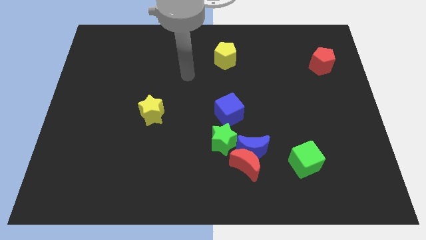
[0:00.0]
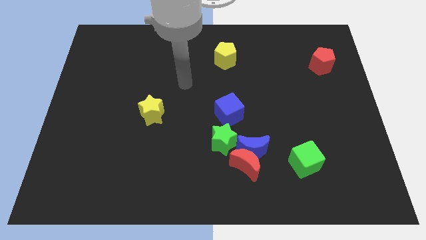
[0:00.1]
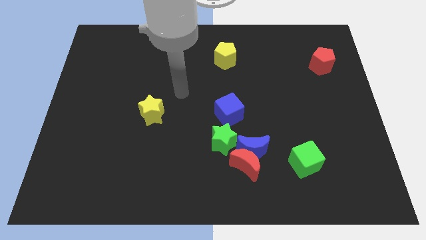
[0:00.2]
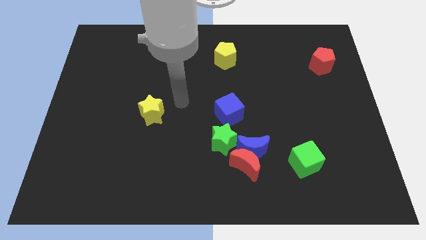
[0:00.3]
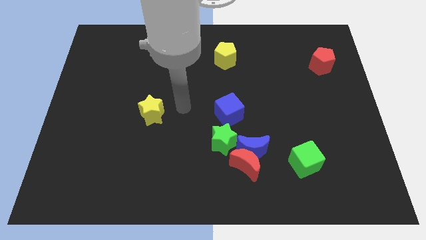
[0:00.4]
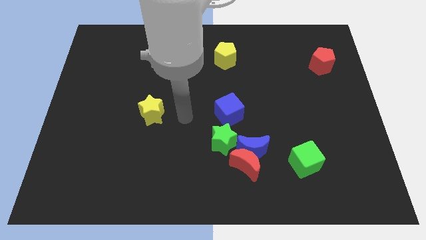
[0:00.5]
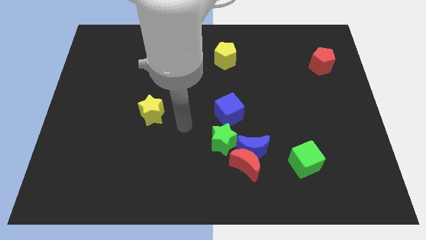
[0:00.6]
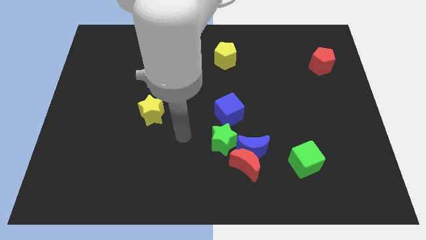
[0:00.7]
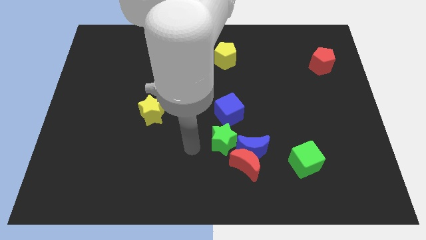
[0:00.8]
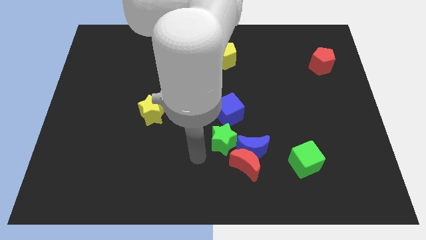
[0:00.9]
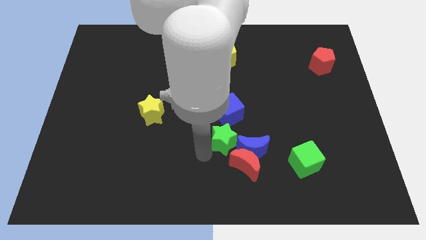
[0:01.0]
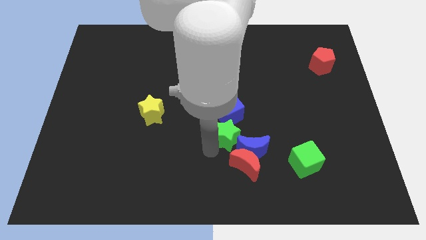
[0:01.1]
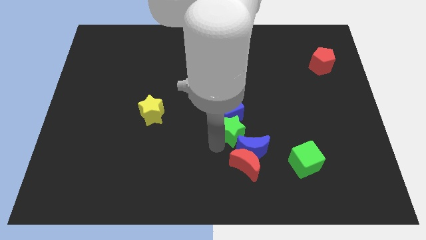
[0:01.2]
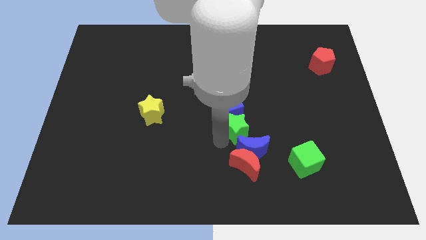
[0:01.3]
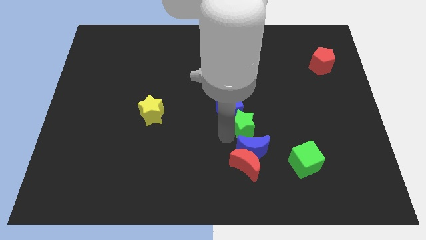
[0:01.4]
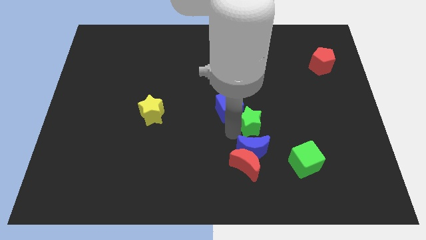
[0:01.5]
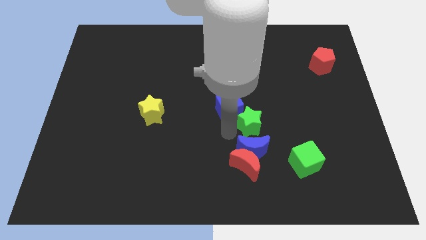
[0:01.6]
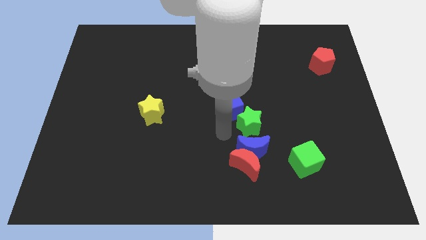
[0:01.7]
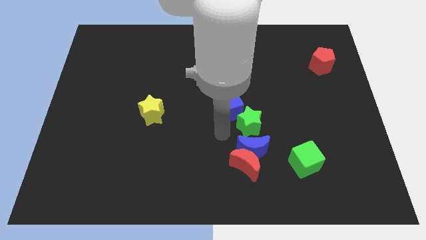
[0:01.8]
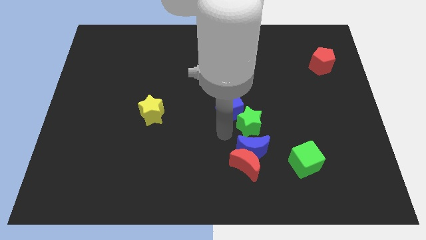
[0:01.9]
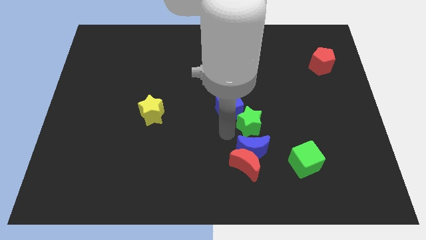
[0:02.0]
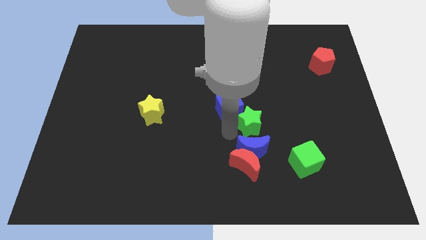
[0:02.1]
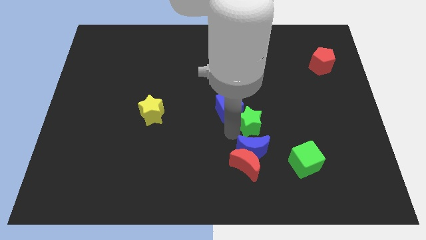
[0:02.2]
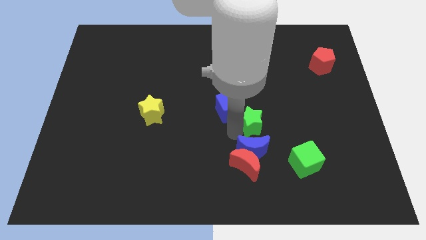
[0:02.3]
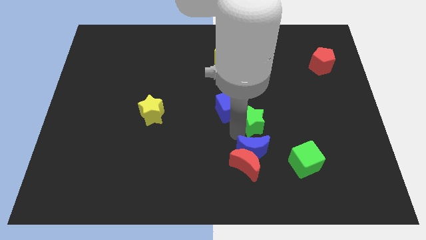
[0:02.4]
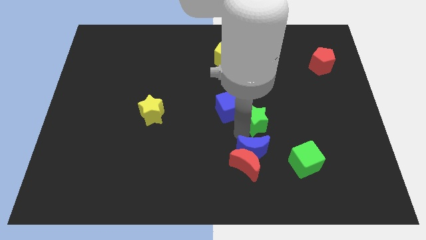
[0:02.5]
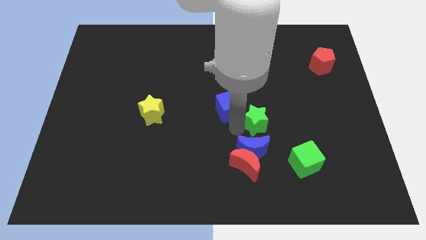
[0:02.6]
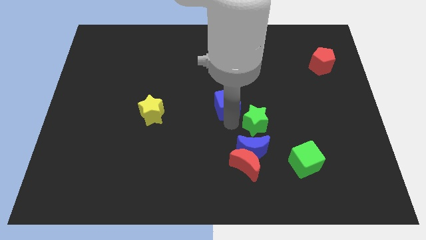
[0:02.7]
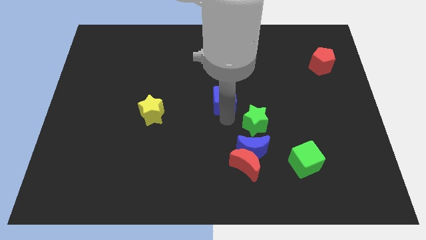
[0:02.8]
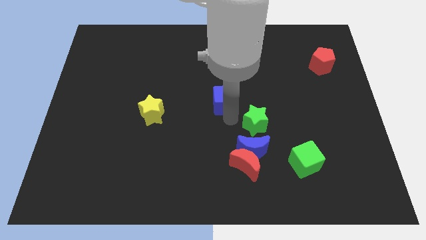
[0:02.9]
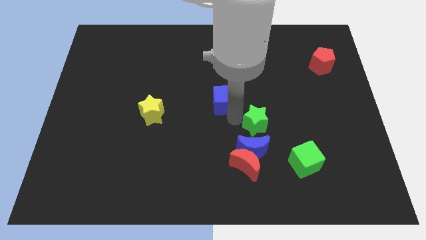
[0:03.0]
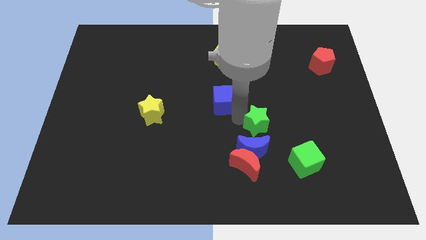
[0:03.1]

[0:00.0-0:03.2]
slightly push the green star to the right

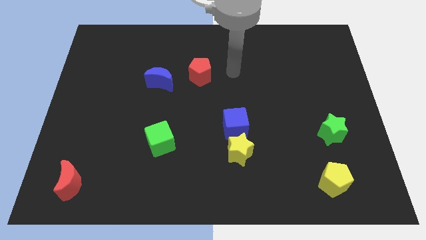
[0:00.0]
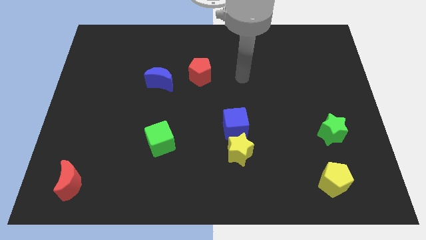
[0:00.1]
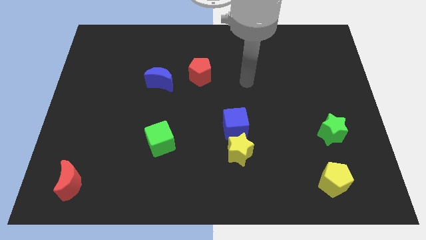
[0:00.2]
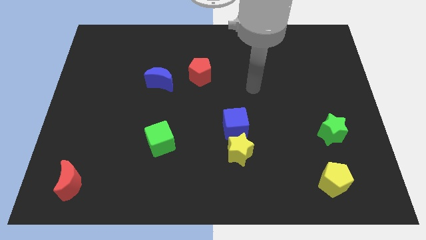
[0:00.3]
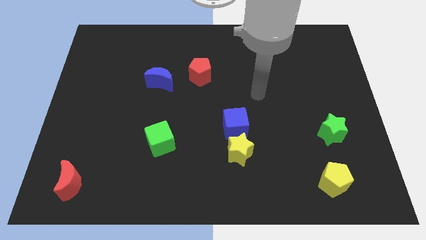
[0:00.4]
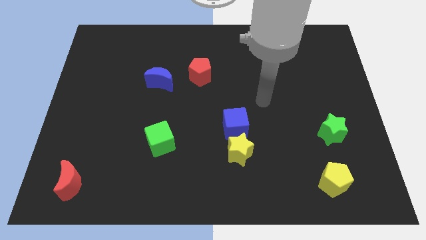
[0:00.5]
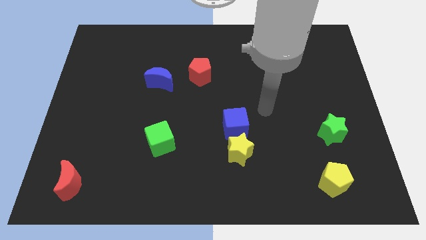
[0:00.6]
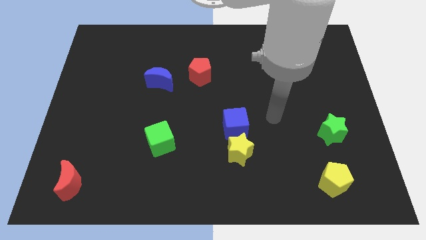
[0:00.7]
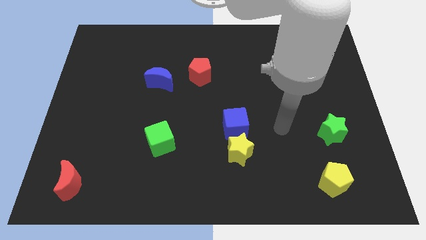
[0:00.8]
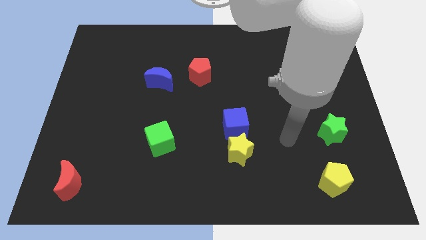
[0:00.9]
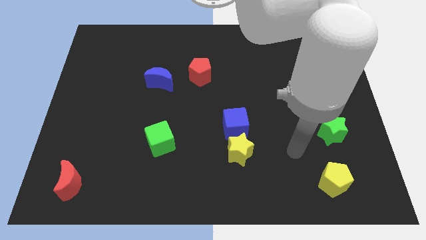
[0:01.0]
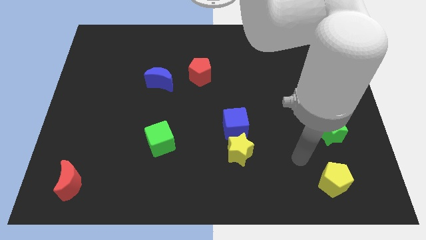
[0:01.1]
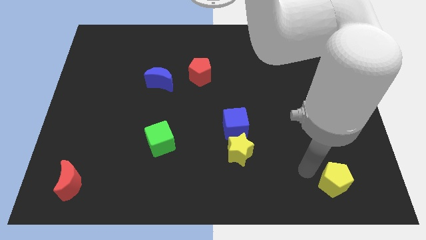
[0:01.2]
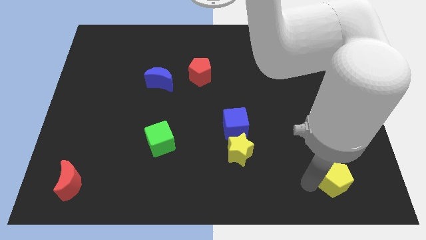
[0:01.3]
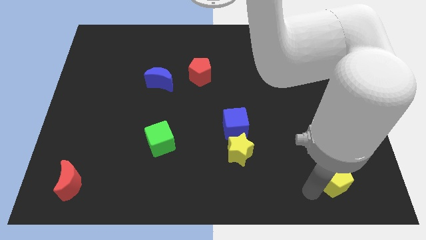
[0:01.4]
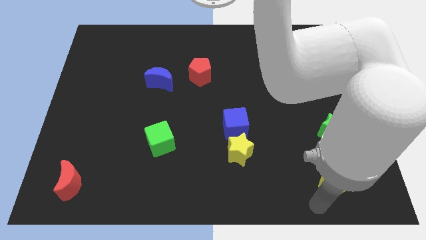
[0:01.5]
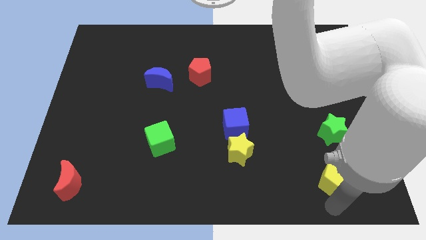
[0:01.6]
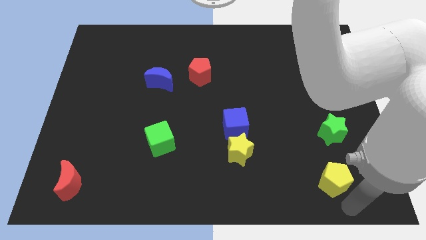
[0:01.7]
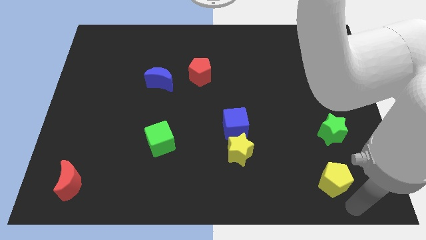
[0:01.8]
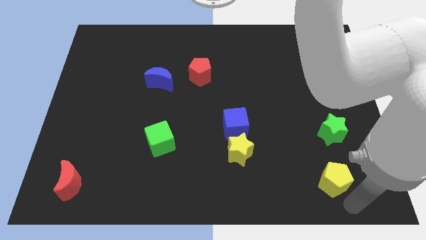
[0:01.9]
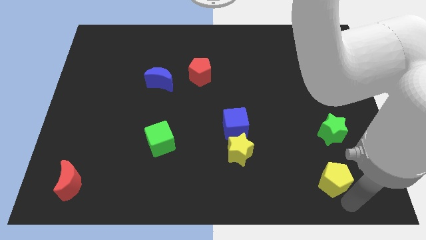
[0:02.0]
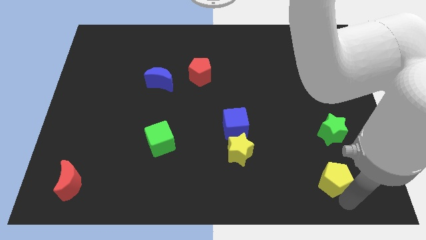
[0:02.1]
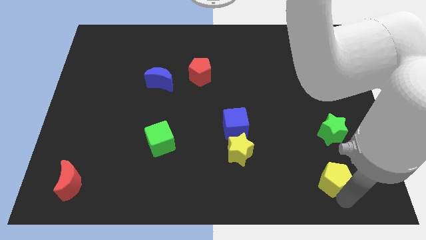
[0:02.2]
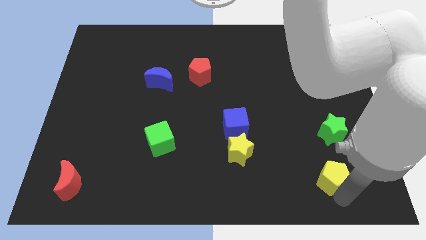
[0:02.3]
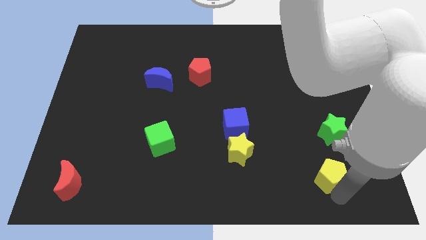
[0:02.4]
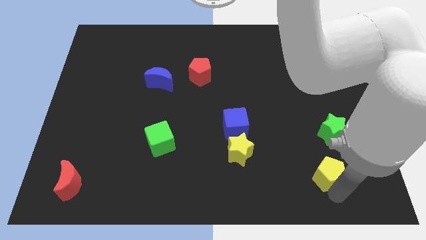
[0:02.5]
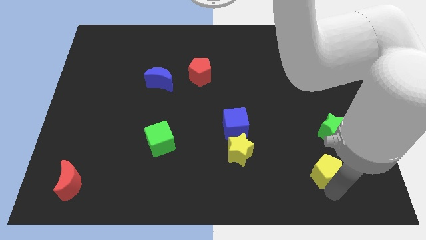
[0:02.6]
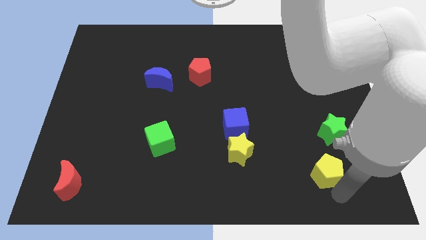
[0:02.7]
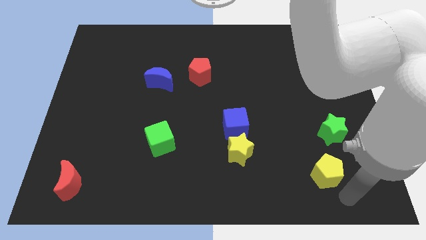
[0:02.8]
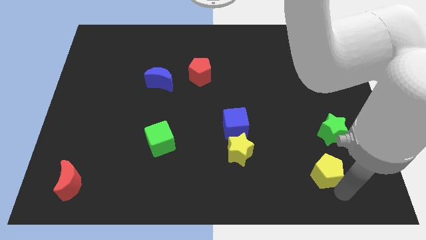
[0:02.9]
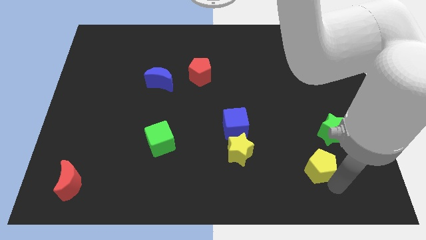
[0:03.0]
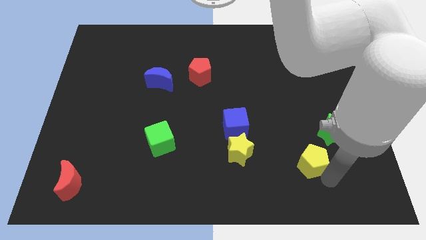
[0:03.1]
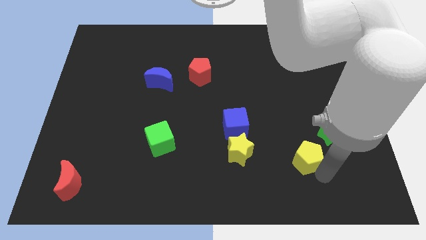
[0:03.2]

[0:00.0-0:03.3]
slightly move the yellow pentagon diagonally up and left

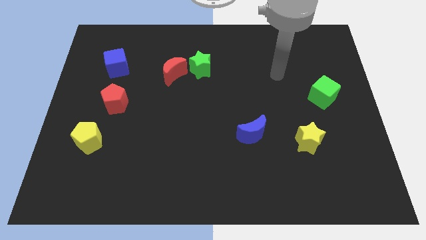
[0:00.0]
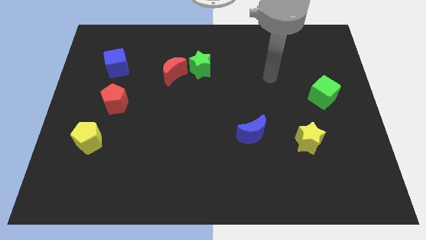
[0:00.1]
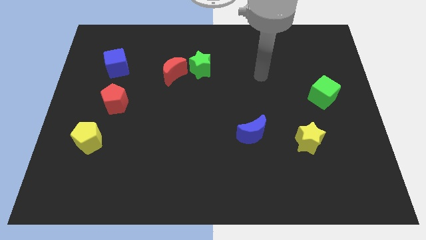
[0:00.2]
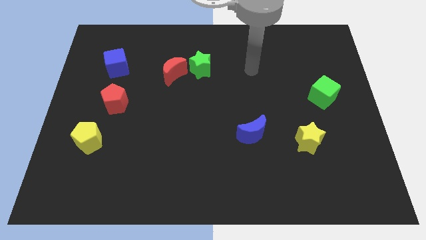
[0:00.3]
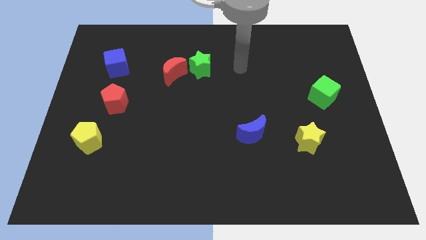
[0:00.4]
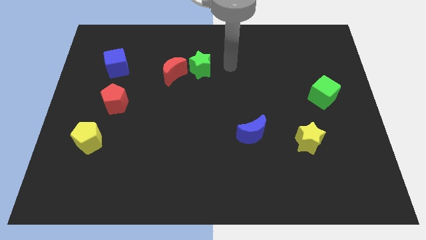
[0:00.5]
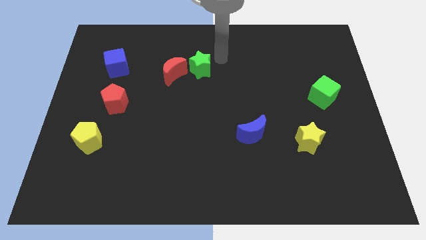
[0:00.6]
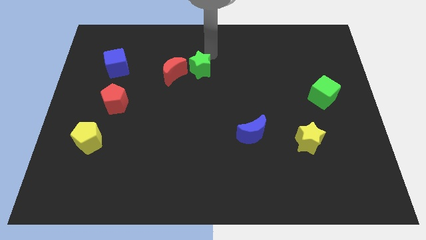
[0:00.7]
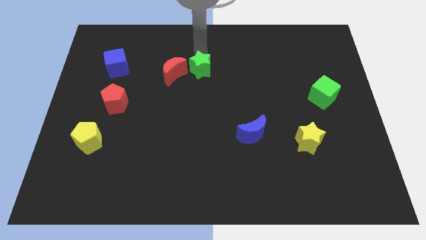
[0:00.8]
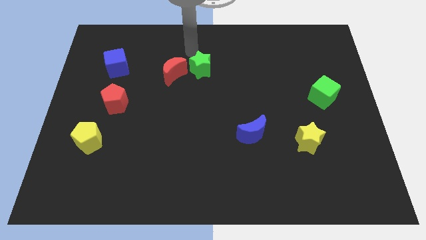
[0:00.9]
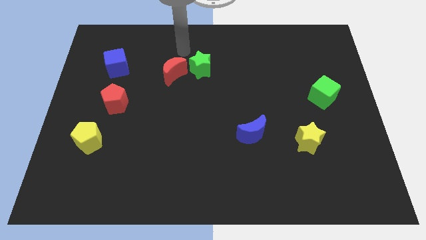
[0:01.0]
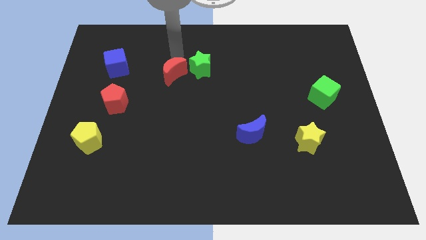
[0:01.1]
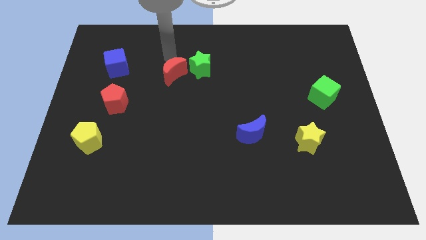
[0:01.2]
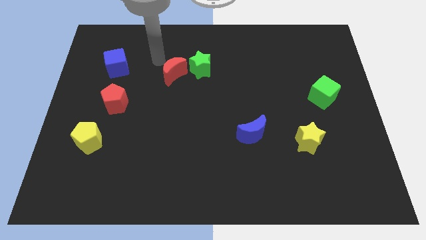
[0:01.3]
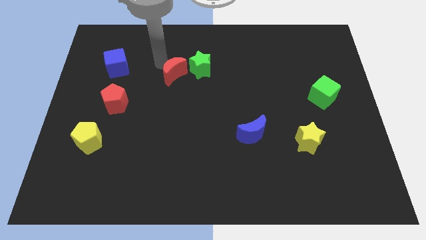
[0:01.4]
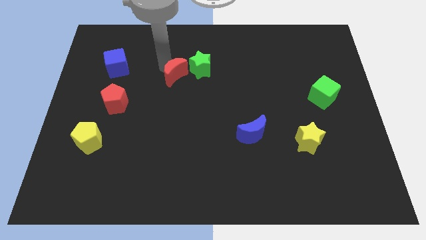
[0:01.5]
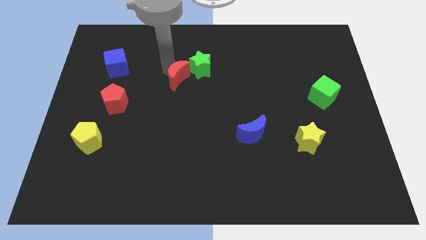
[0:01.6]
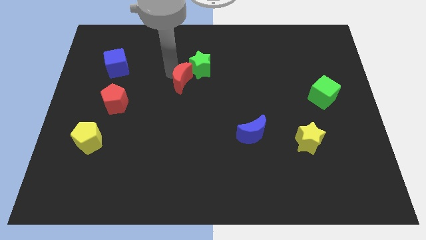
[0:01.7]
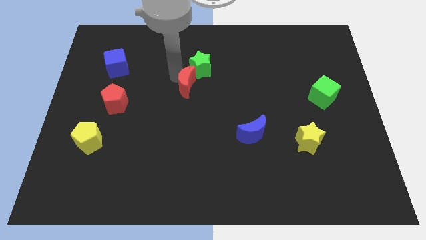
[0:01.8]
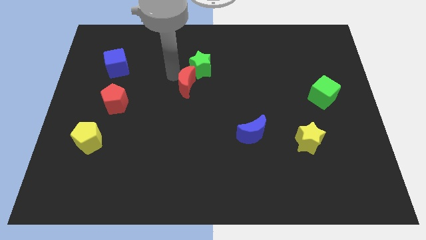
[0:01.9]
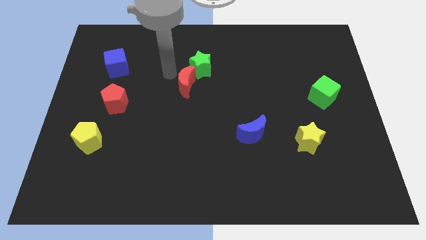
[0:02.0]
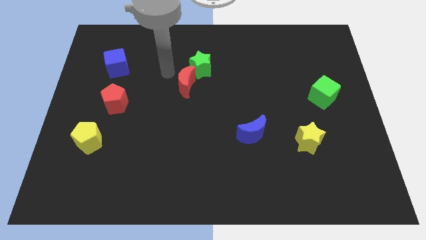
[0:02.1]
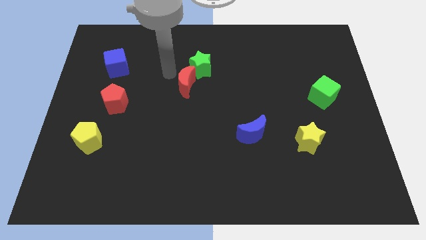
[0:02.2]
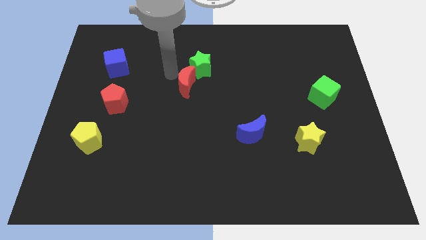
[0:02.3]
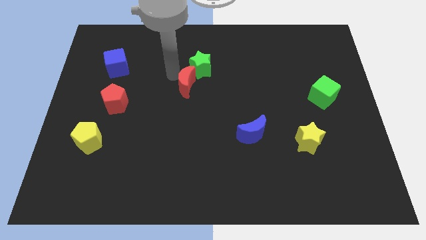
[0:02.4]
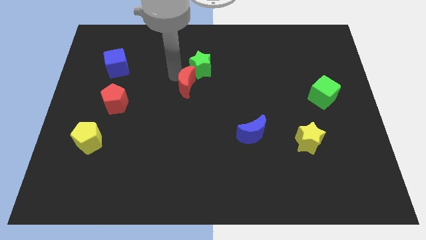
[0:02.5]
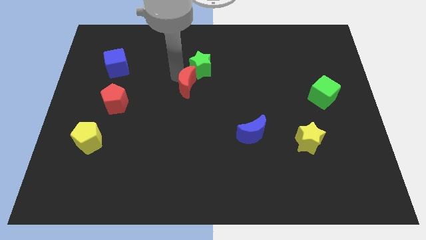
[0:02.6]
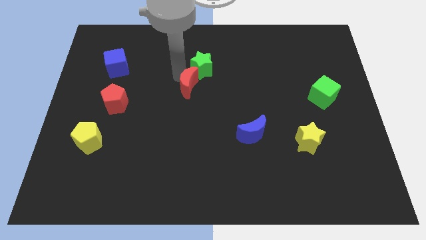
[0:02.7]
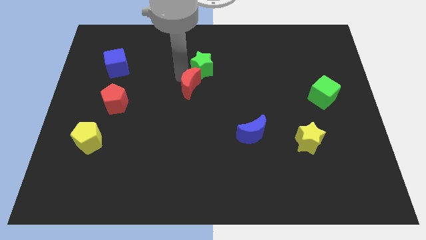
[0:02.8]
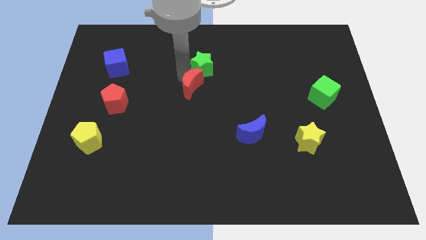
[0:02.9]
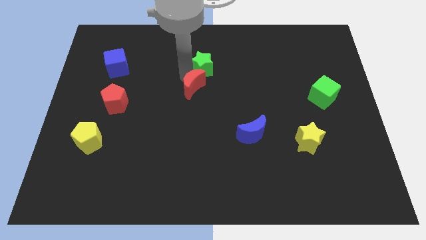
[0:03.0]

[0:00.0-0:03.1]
push the red moon downwards and then right slightly
